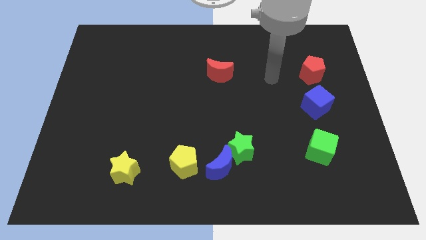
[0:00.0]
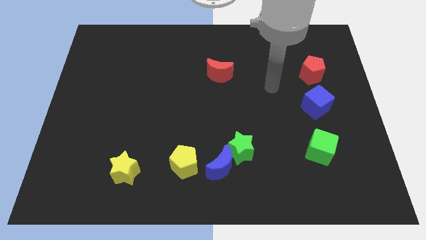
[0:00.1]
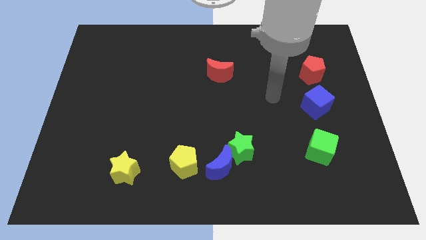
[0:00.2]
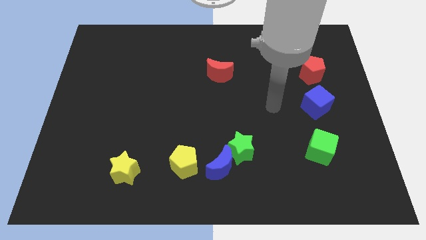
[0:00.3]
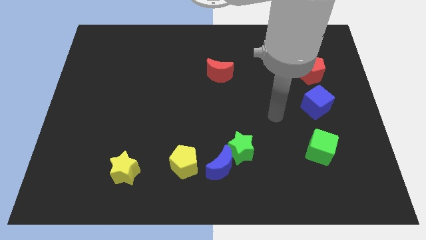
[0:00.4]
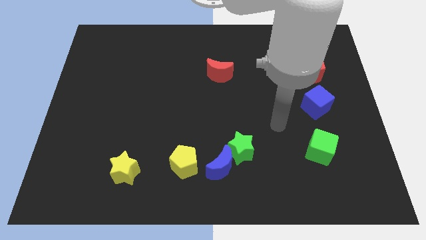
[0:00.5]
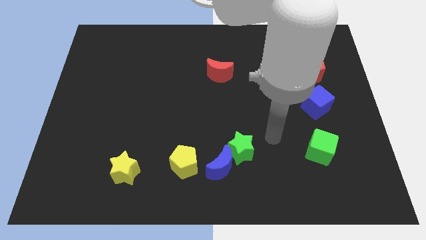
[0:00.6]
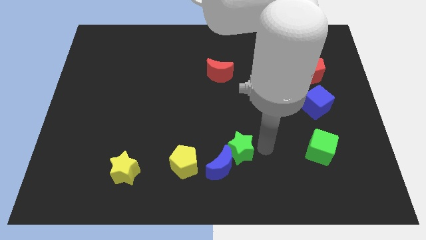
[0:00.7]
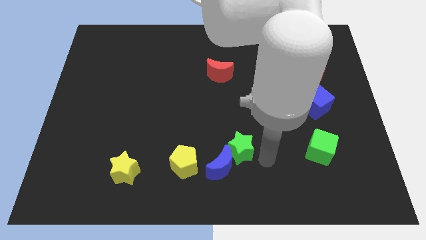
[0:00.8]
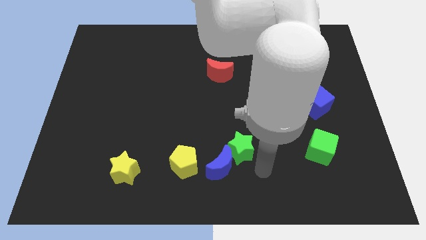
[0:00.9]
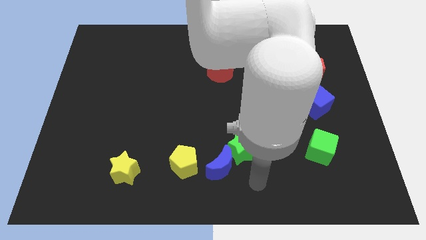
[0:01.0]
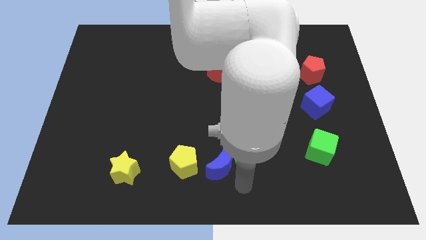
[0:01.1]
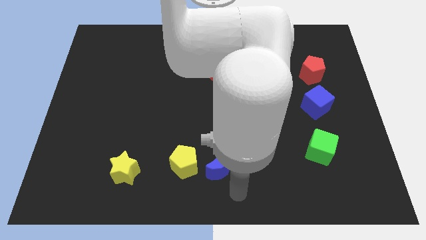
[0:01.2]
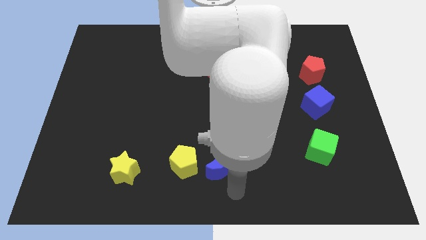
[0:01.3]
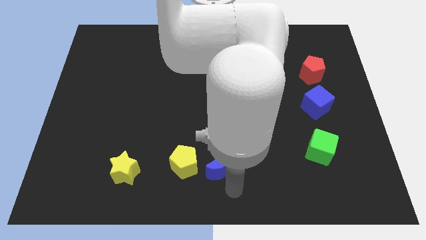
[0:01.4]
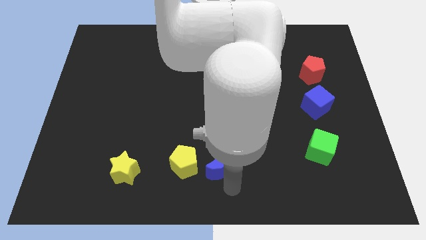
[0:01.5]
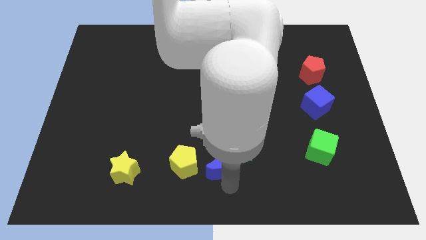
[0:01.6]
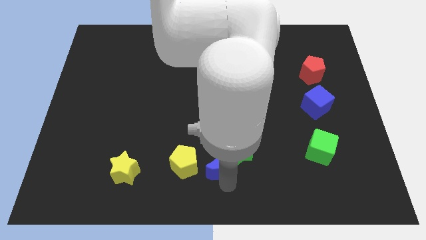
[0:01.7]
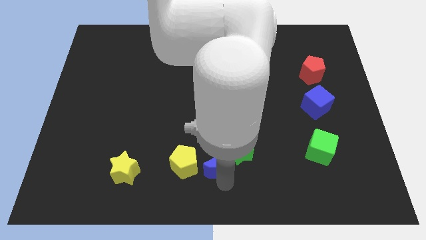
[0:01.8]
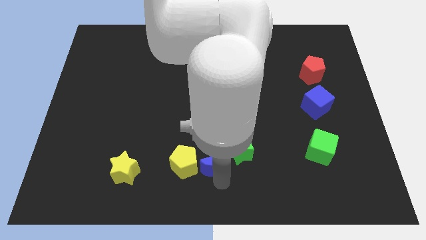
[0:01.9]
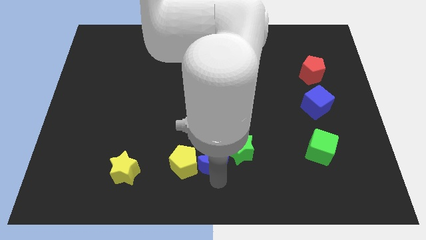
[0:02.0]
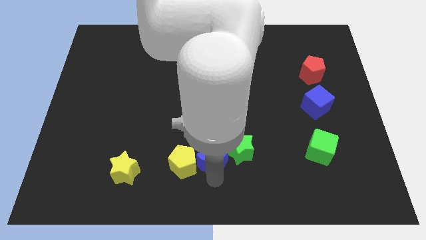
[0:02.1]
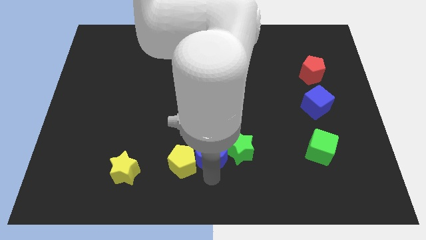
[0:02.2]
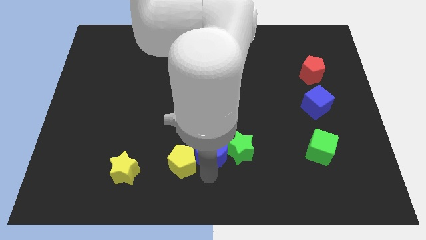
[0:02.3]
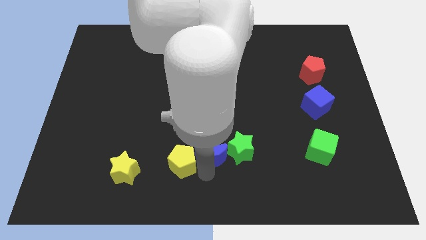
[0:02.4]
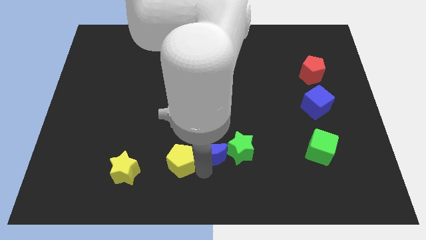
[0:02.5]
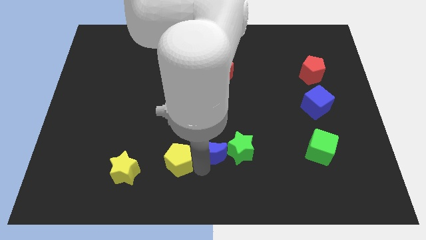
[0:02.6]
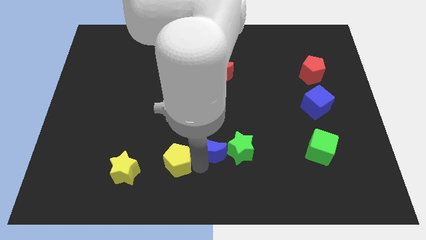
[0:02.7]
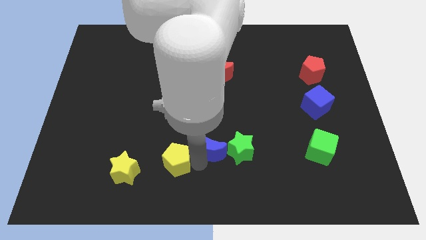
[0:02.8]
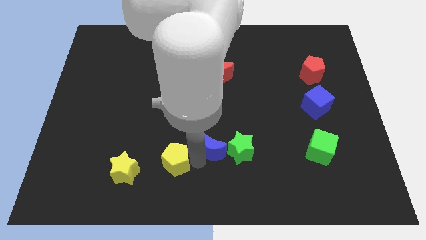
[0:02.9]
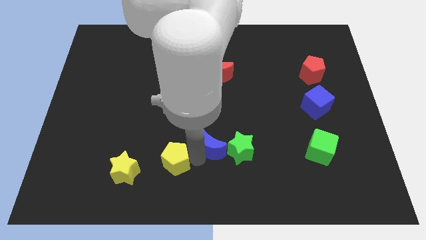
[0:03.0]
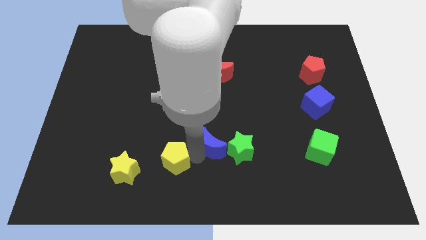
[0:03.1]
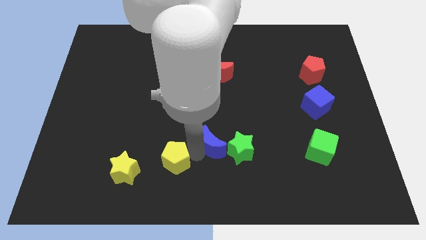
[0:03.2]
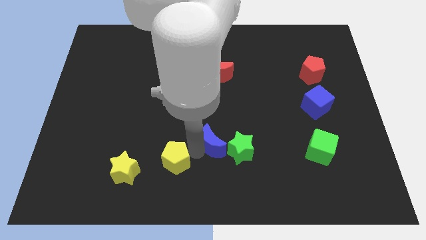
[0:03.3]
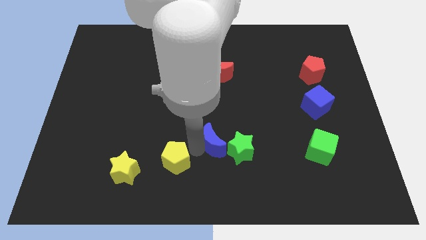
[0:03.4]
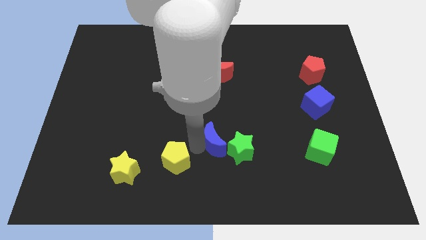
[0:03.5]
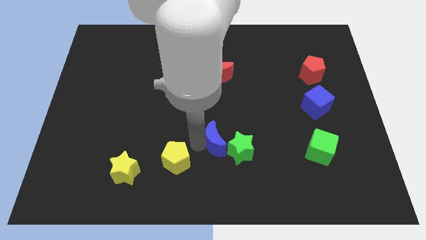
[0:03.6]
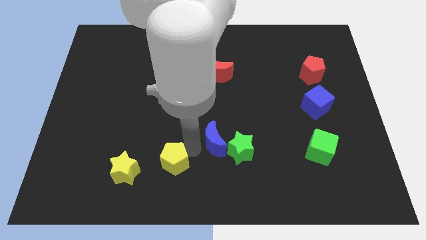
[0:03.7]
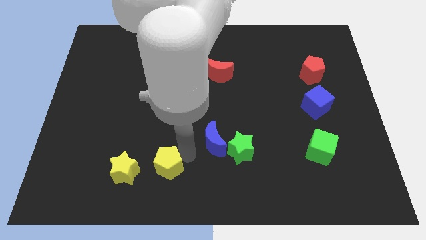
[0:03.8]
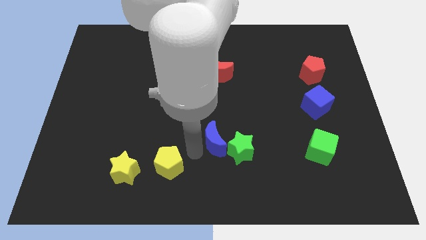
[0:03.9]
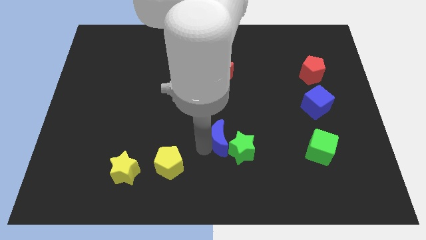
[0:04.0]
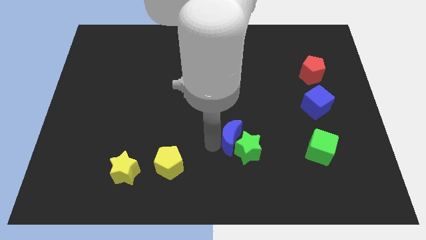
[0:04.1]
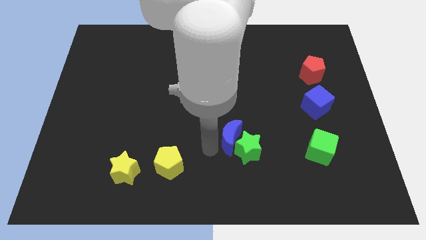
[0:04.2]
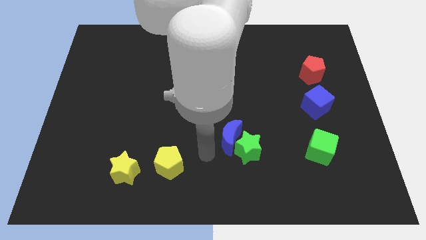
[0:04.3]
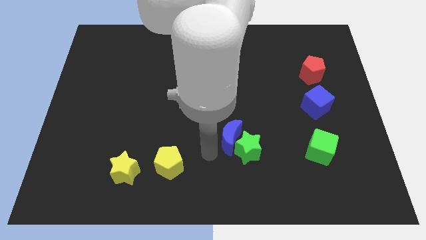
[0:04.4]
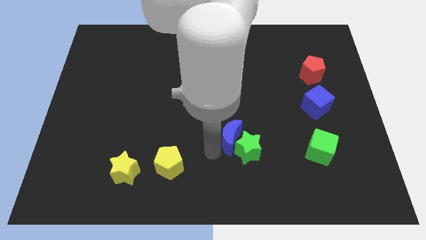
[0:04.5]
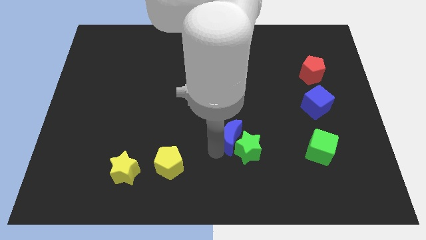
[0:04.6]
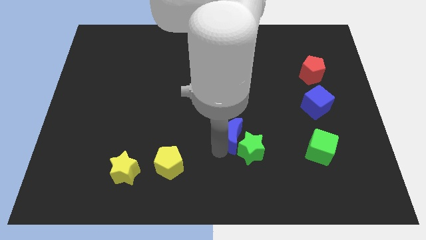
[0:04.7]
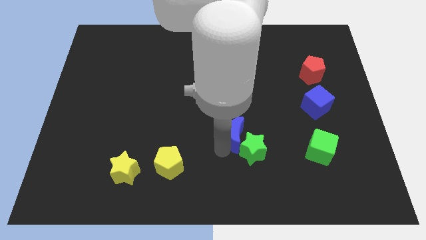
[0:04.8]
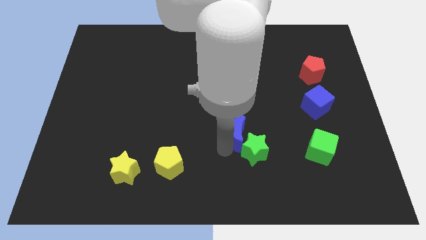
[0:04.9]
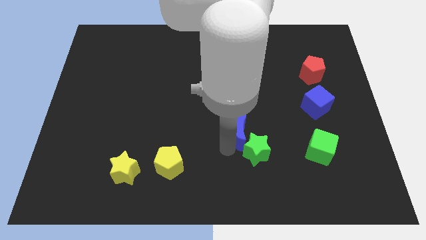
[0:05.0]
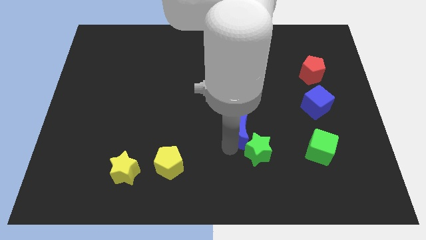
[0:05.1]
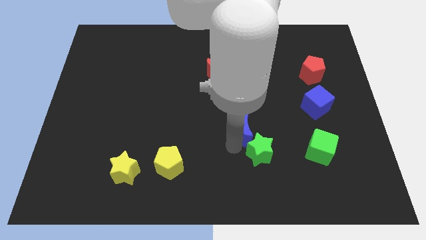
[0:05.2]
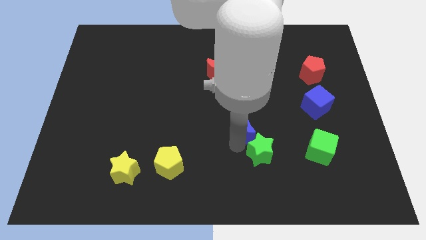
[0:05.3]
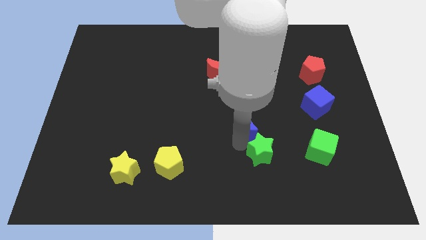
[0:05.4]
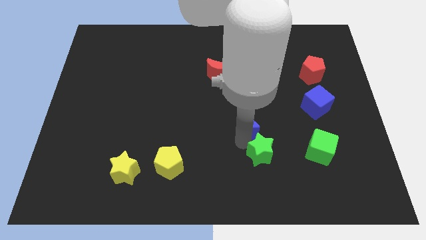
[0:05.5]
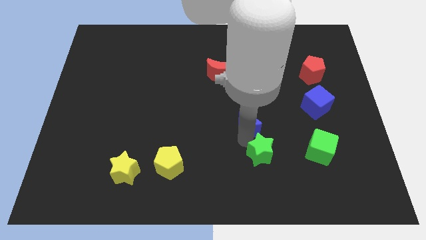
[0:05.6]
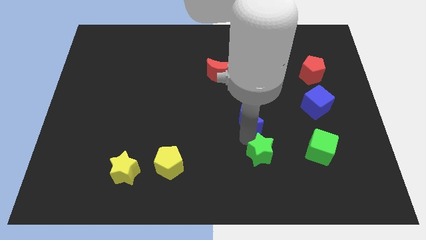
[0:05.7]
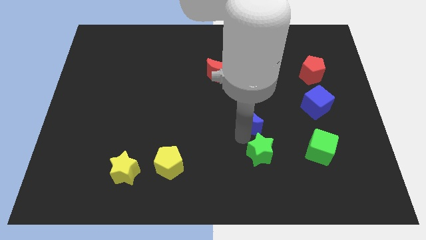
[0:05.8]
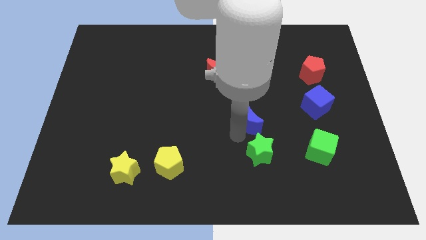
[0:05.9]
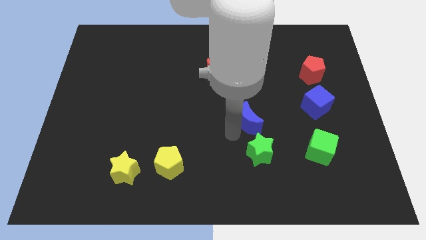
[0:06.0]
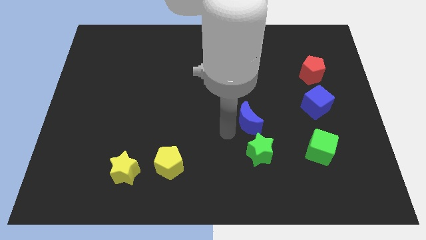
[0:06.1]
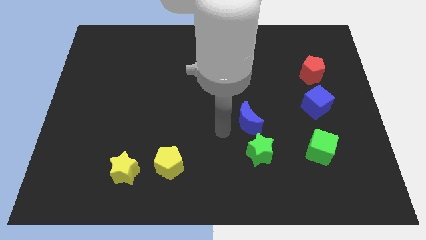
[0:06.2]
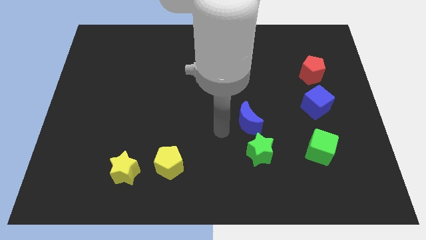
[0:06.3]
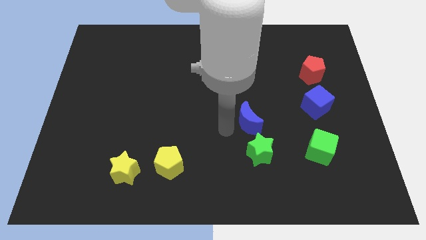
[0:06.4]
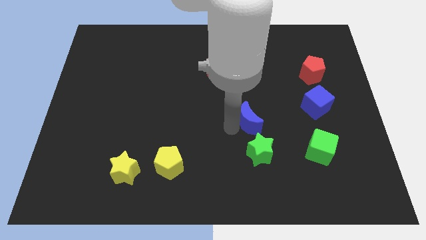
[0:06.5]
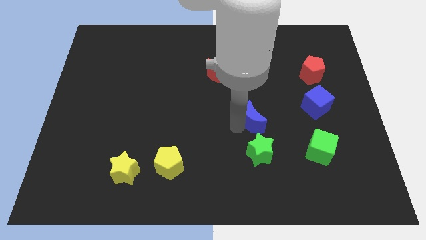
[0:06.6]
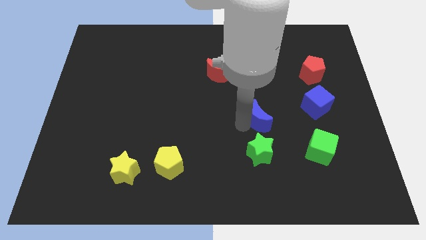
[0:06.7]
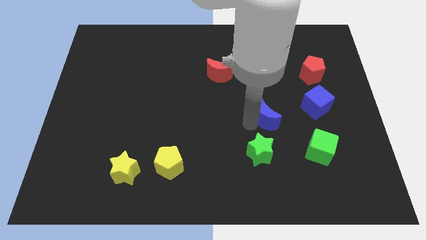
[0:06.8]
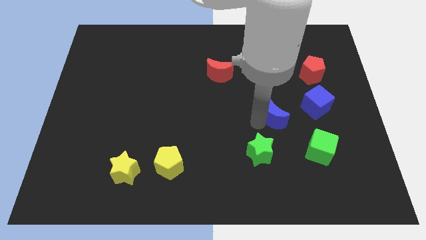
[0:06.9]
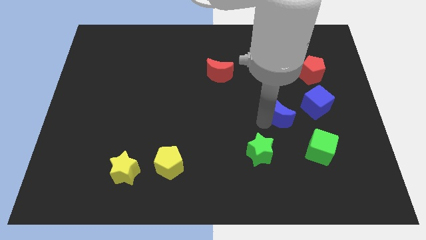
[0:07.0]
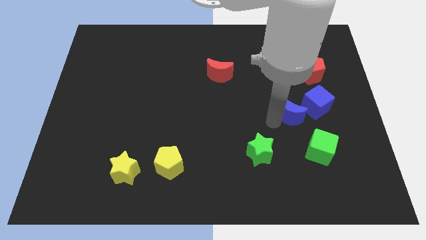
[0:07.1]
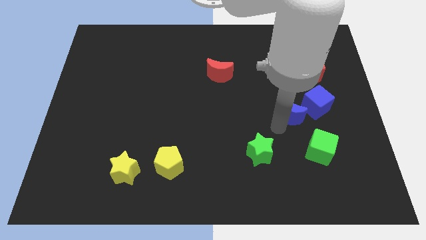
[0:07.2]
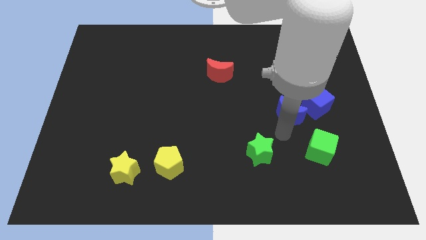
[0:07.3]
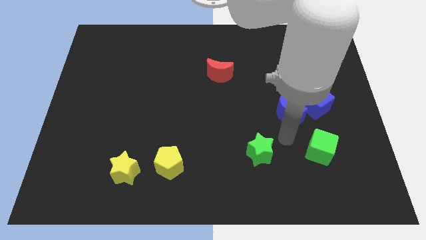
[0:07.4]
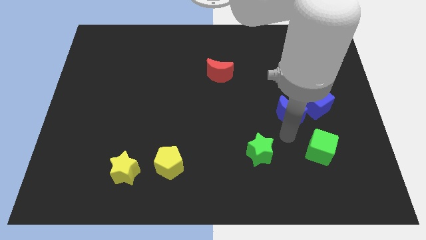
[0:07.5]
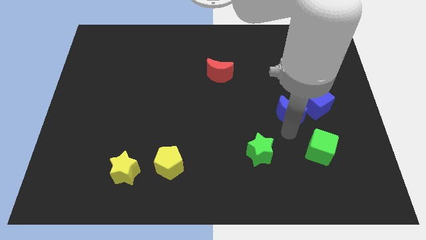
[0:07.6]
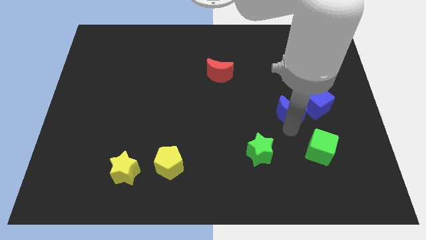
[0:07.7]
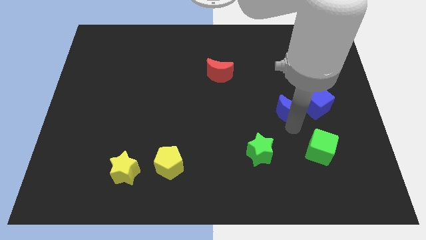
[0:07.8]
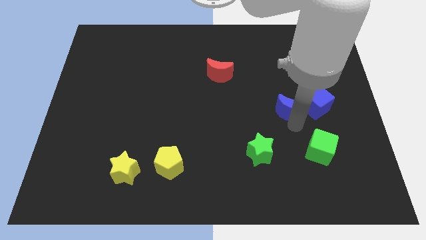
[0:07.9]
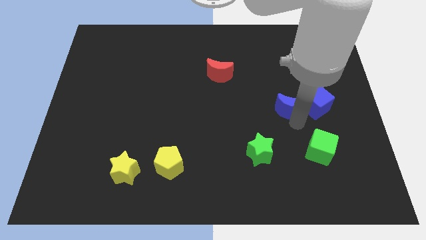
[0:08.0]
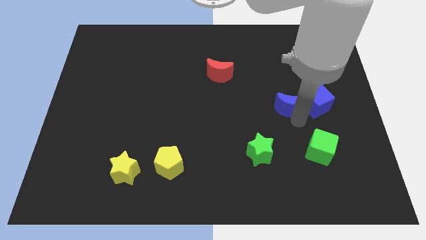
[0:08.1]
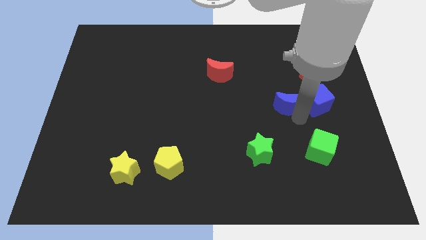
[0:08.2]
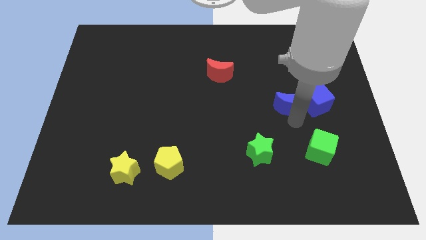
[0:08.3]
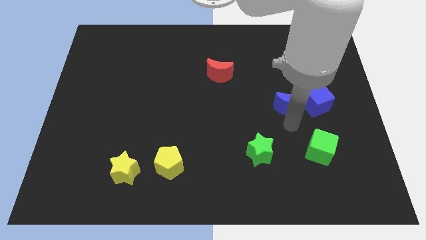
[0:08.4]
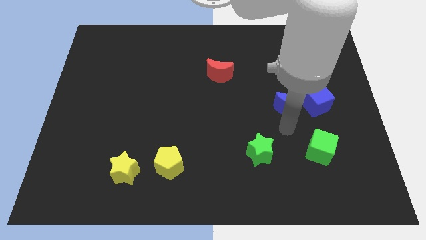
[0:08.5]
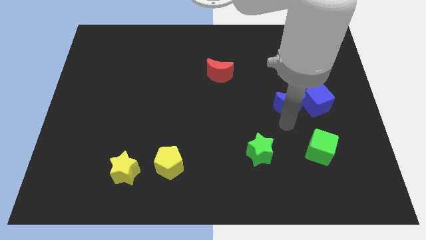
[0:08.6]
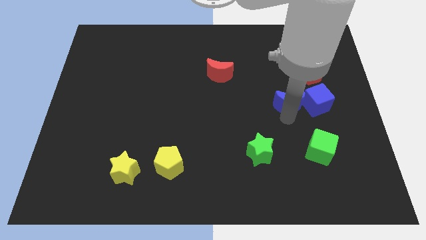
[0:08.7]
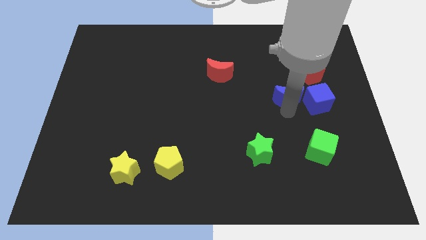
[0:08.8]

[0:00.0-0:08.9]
slide the blue moon diagonally up and to the left of the blue cube
